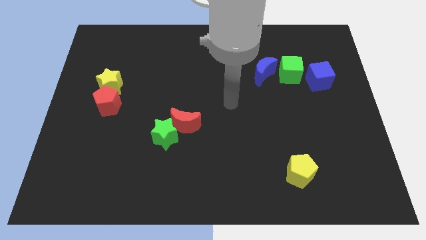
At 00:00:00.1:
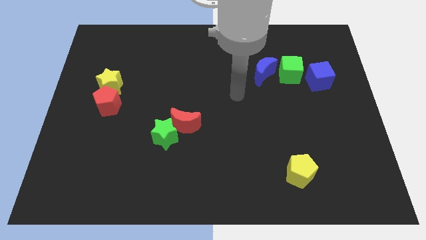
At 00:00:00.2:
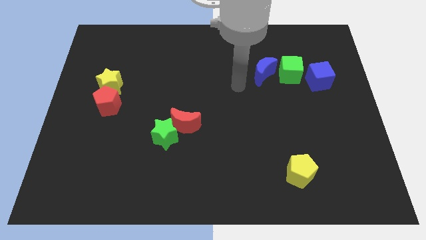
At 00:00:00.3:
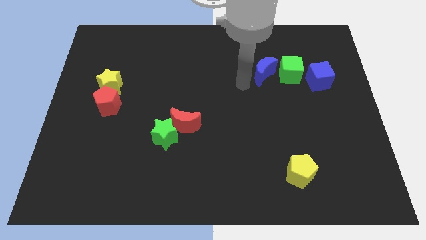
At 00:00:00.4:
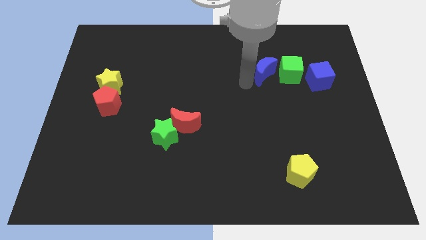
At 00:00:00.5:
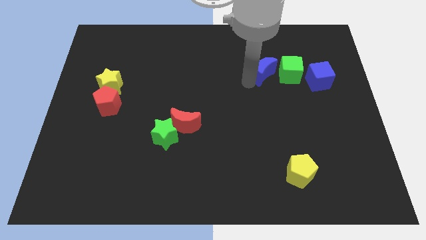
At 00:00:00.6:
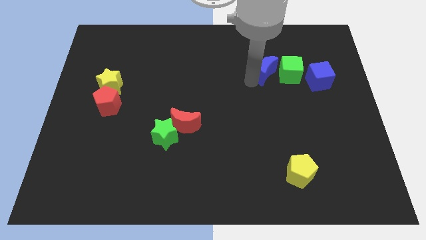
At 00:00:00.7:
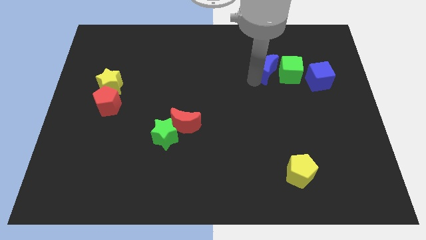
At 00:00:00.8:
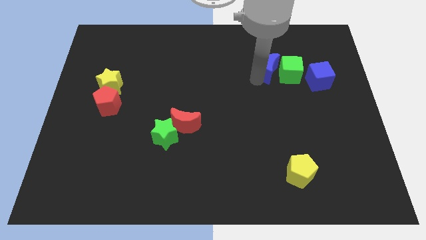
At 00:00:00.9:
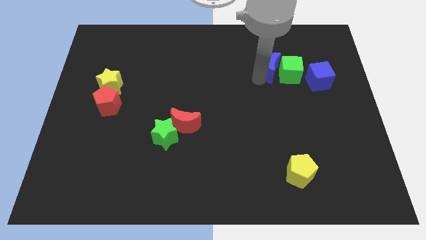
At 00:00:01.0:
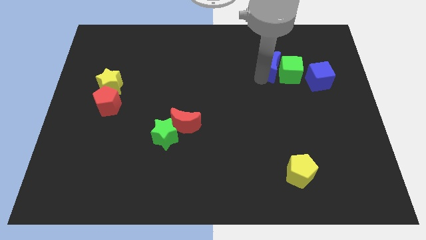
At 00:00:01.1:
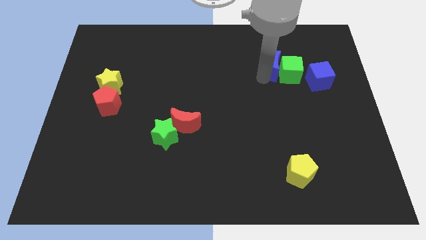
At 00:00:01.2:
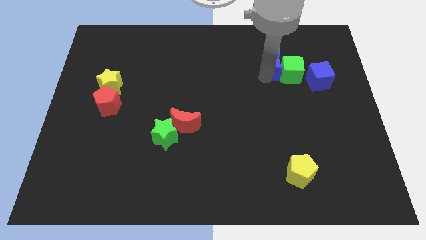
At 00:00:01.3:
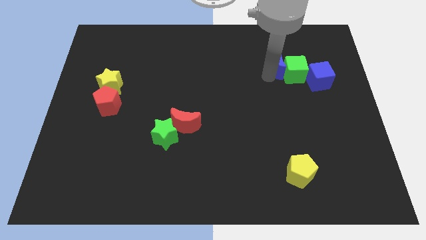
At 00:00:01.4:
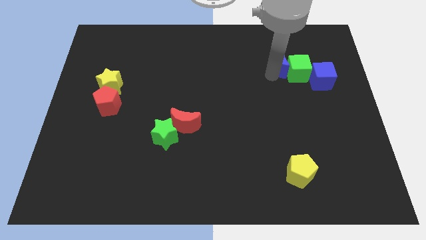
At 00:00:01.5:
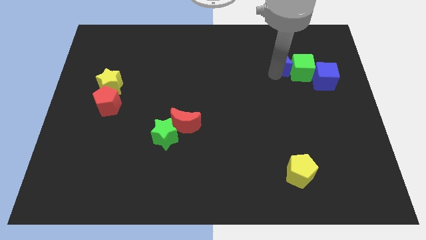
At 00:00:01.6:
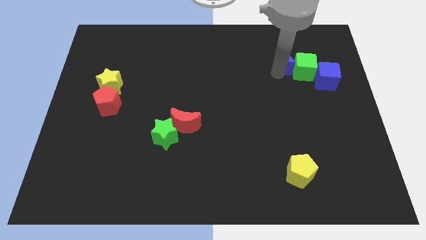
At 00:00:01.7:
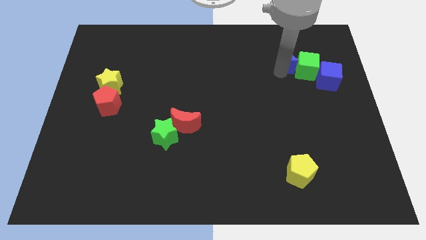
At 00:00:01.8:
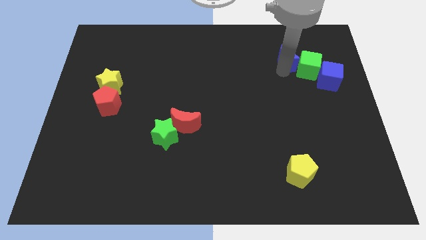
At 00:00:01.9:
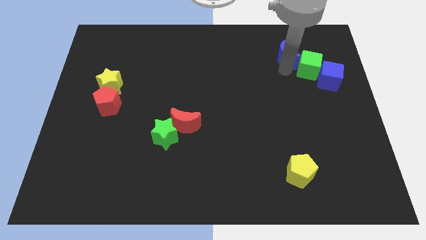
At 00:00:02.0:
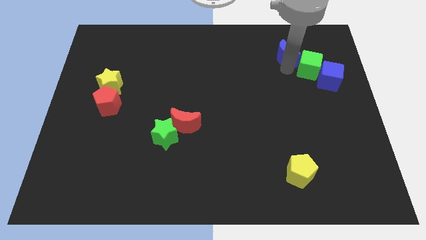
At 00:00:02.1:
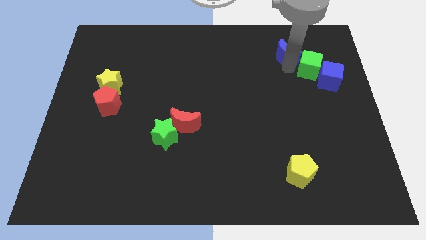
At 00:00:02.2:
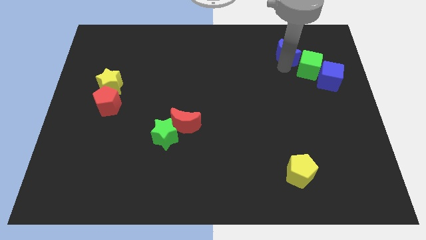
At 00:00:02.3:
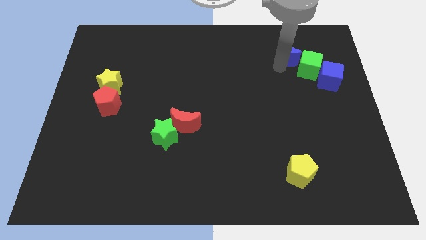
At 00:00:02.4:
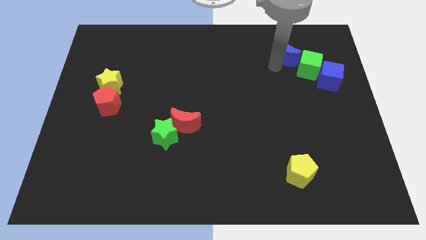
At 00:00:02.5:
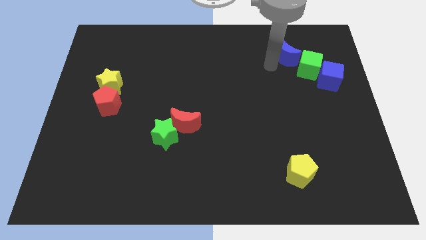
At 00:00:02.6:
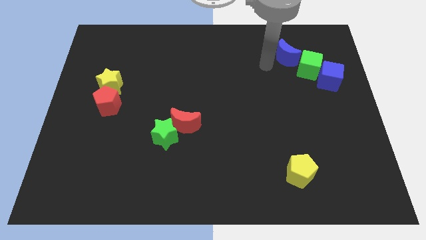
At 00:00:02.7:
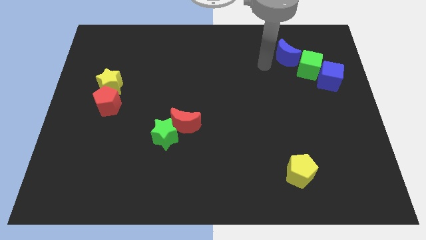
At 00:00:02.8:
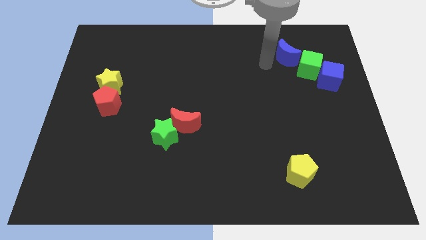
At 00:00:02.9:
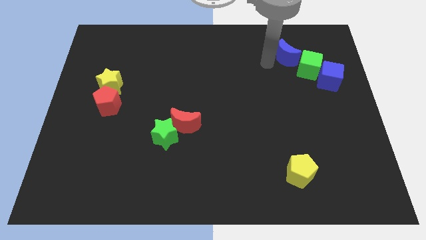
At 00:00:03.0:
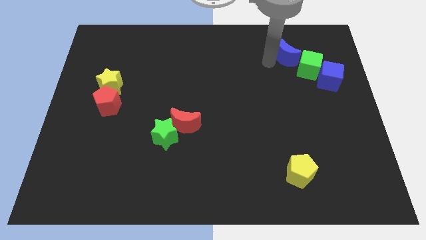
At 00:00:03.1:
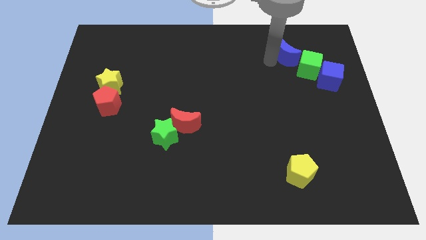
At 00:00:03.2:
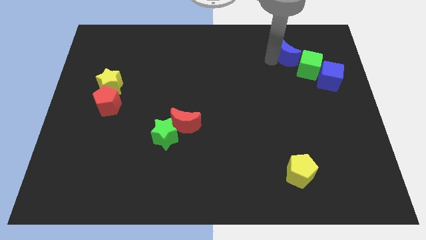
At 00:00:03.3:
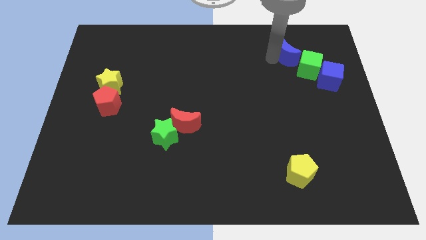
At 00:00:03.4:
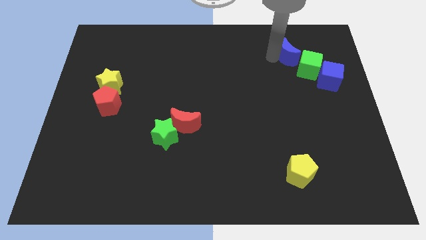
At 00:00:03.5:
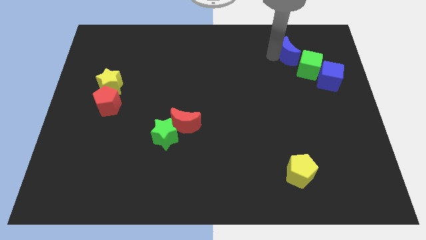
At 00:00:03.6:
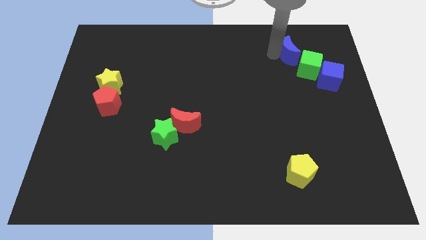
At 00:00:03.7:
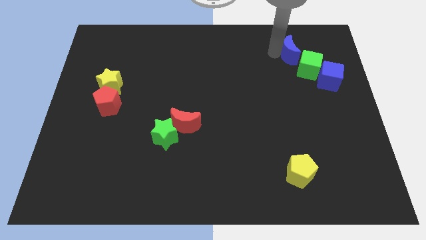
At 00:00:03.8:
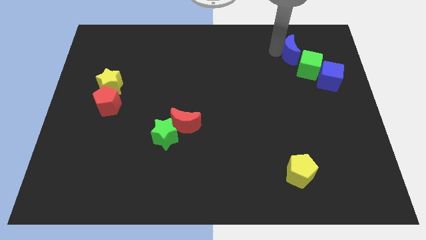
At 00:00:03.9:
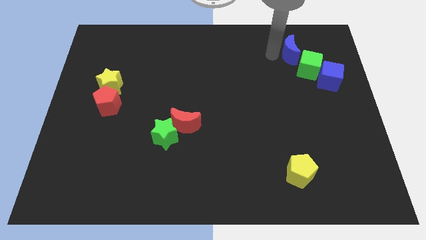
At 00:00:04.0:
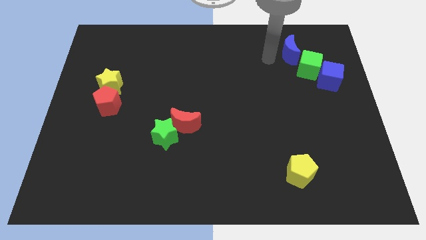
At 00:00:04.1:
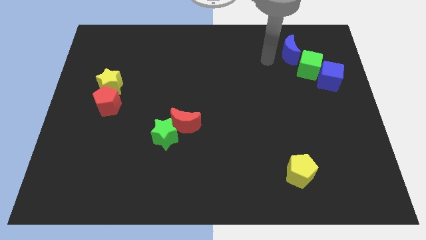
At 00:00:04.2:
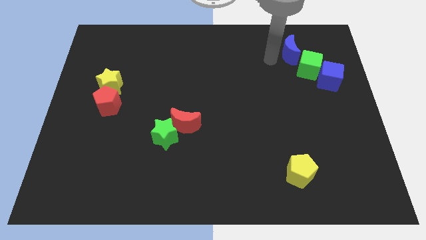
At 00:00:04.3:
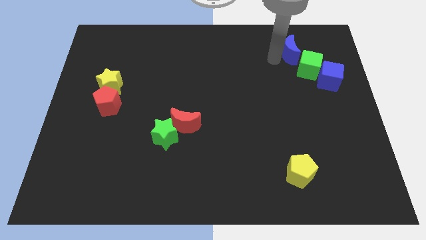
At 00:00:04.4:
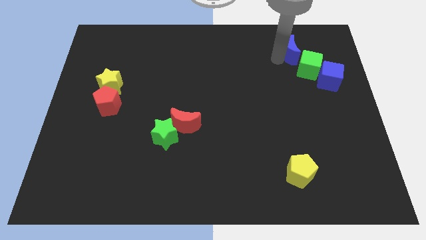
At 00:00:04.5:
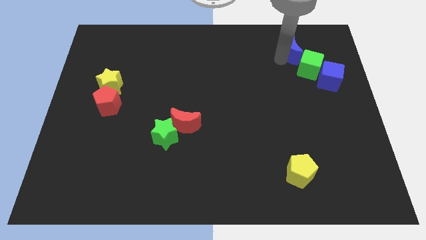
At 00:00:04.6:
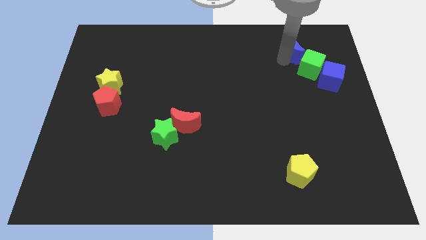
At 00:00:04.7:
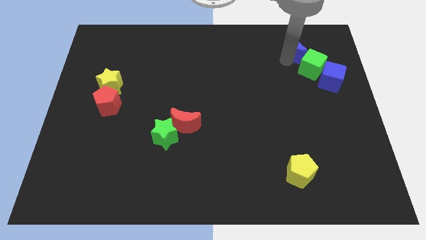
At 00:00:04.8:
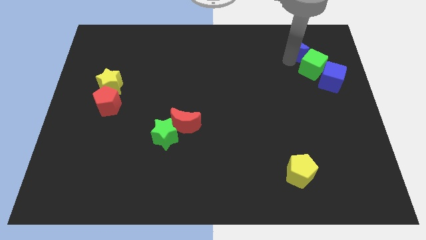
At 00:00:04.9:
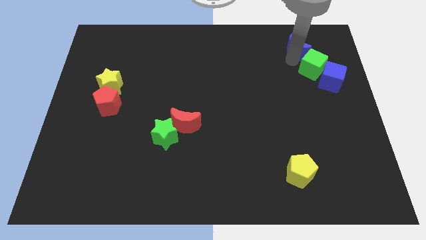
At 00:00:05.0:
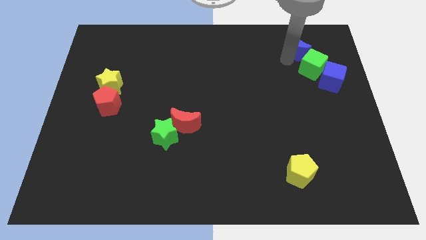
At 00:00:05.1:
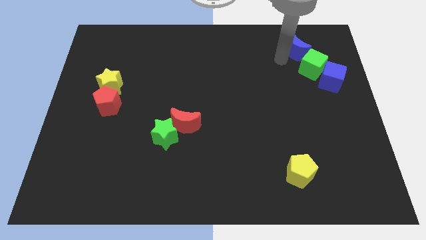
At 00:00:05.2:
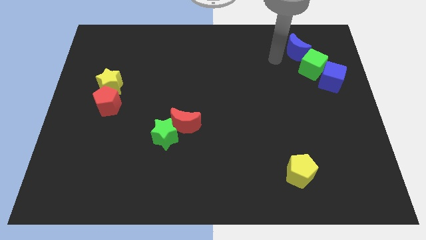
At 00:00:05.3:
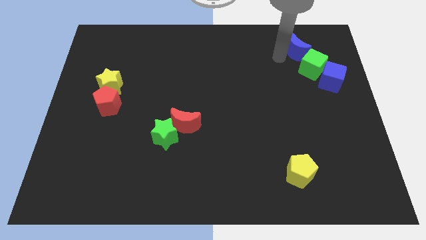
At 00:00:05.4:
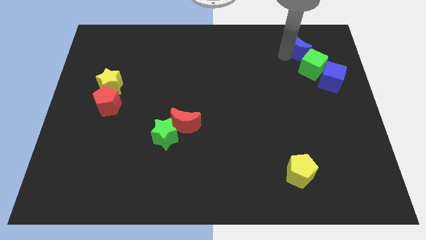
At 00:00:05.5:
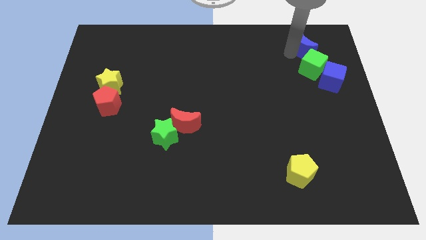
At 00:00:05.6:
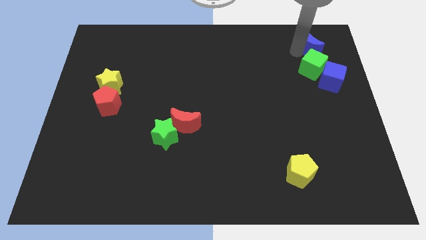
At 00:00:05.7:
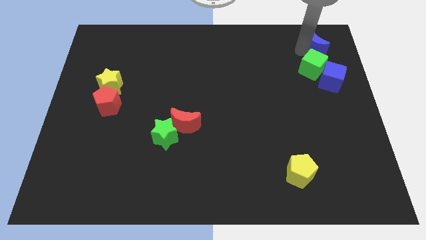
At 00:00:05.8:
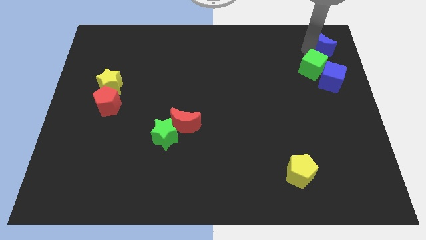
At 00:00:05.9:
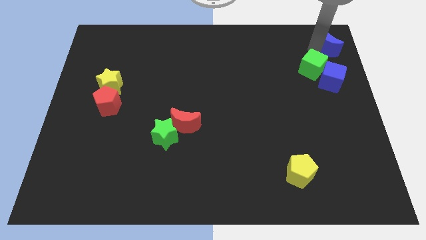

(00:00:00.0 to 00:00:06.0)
slide the blue moon to the upper right corner
